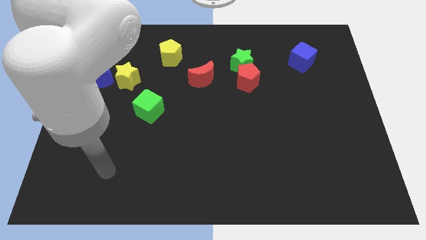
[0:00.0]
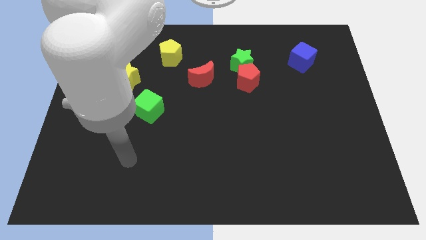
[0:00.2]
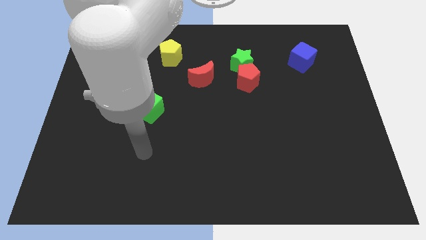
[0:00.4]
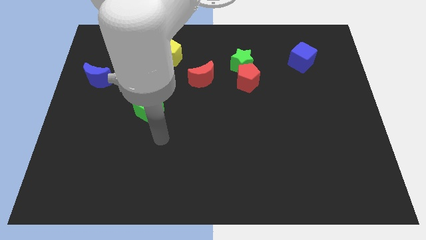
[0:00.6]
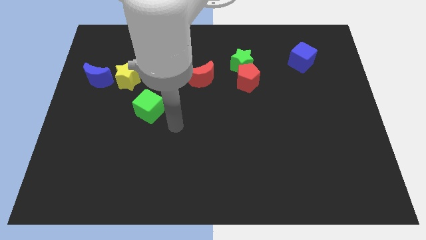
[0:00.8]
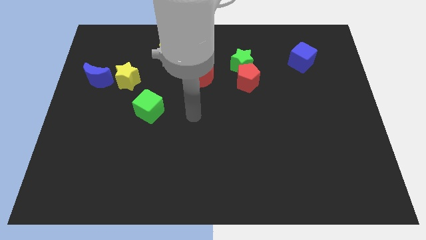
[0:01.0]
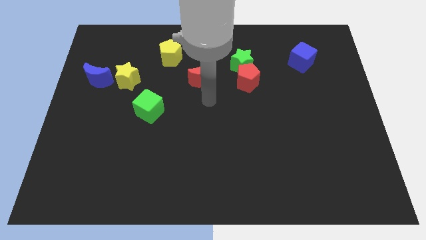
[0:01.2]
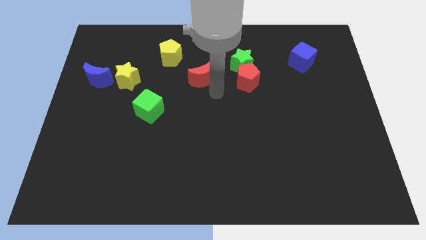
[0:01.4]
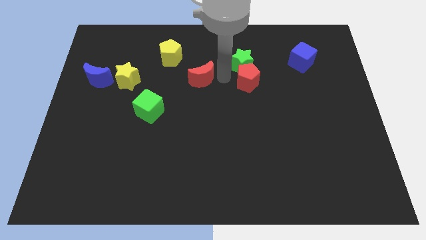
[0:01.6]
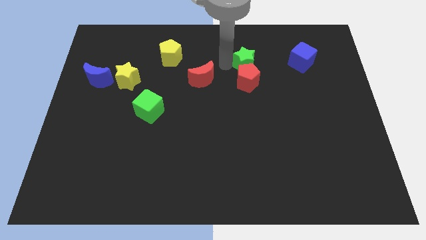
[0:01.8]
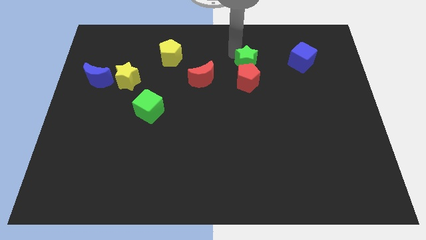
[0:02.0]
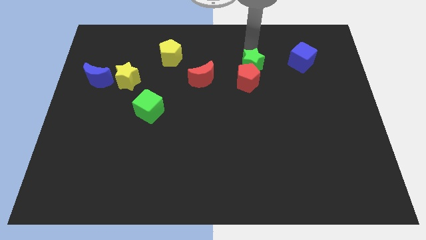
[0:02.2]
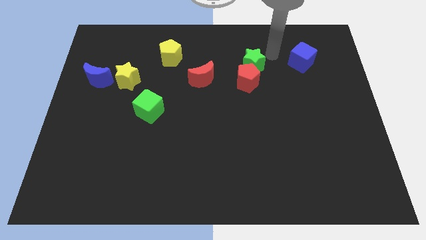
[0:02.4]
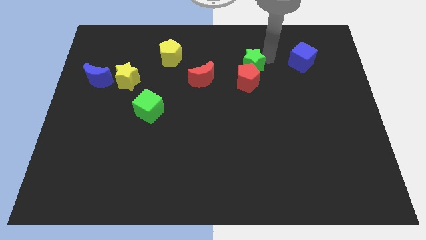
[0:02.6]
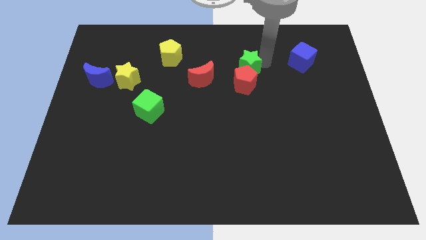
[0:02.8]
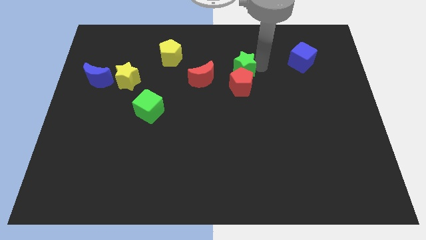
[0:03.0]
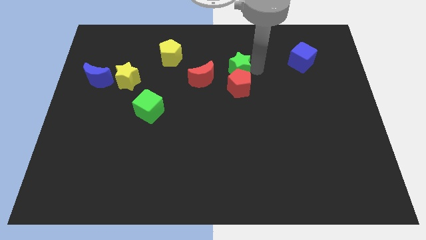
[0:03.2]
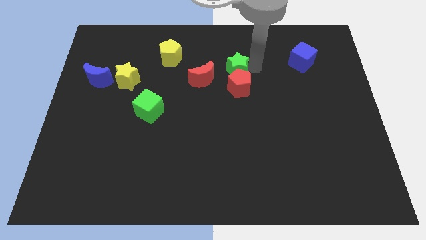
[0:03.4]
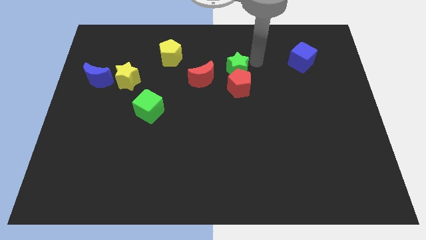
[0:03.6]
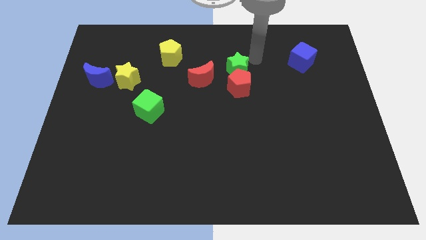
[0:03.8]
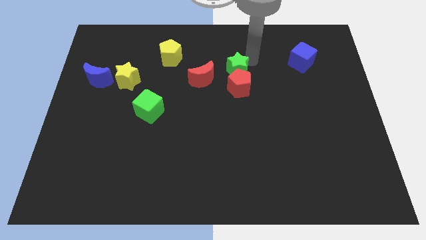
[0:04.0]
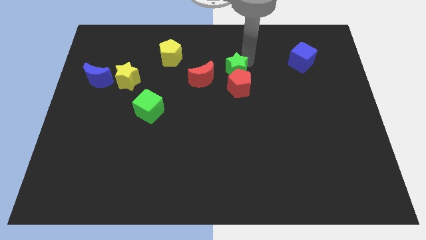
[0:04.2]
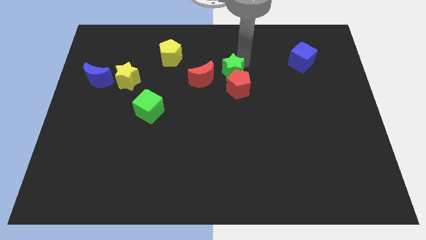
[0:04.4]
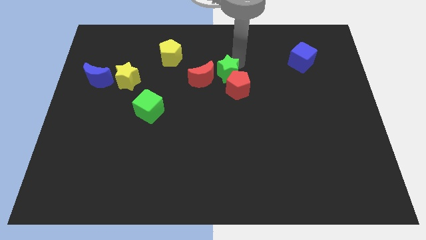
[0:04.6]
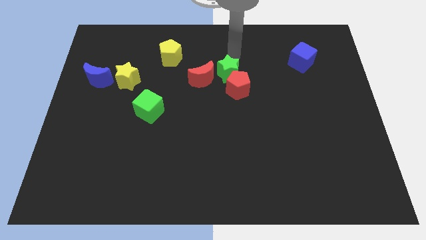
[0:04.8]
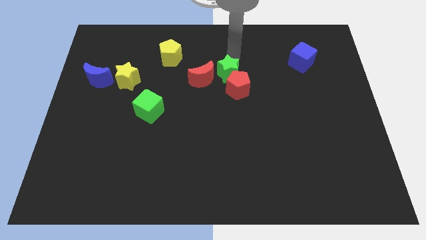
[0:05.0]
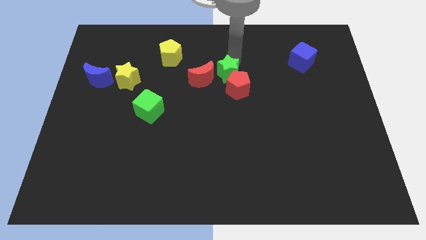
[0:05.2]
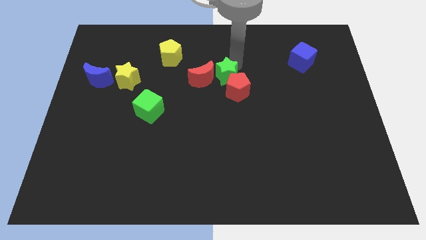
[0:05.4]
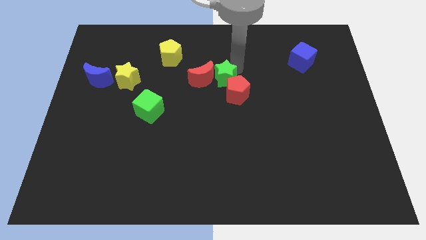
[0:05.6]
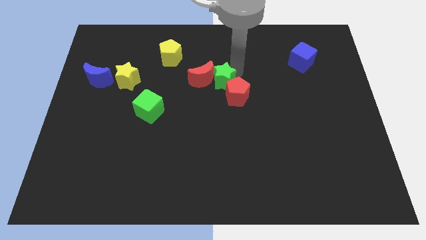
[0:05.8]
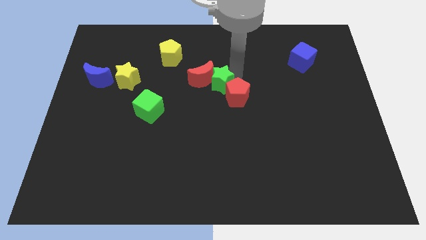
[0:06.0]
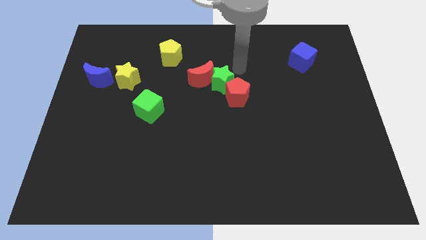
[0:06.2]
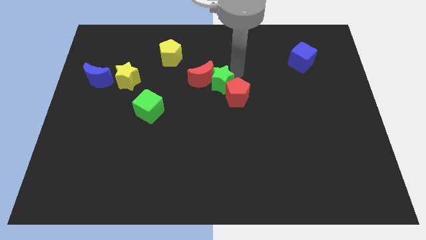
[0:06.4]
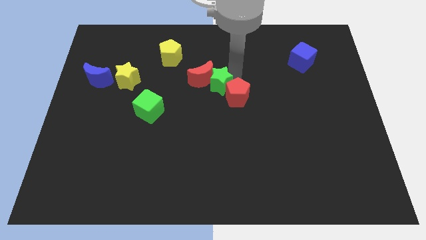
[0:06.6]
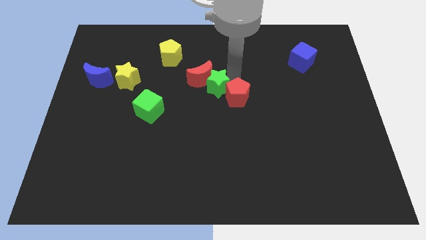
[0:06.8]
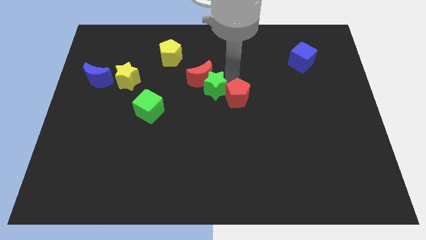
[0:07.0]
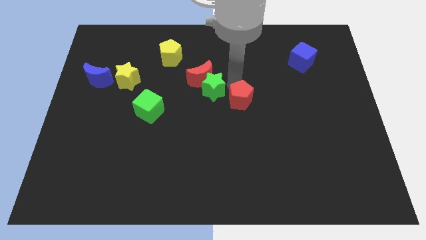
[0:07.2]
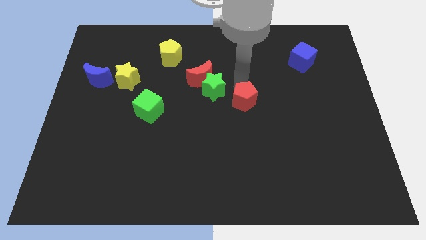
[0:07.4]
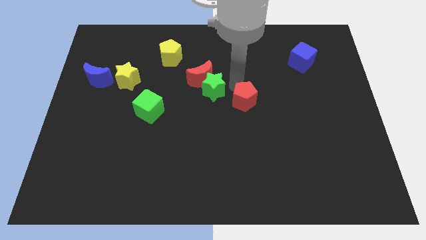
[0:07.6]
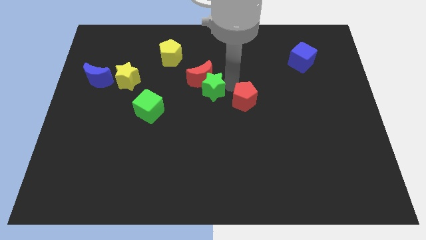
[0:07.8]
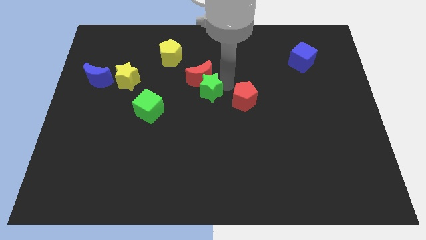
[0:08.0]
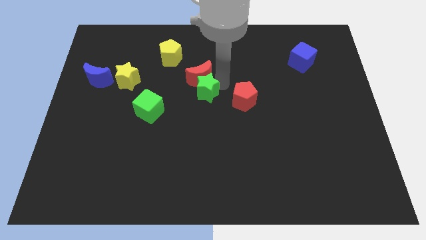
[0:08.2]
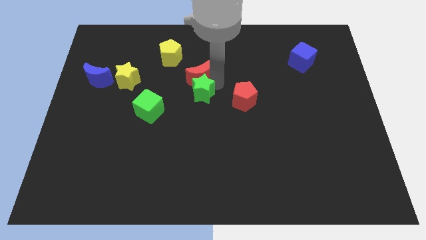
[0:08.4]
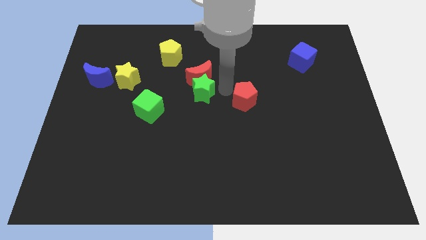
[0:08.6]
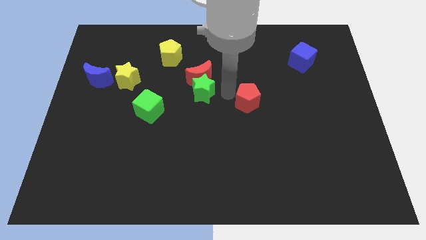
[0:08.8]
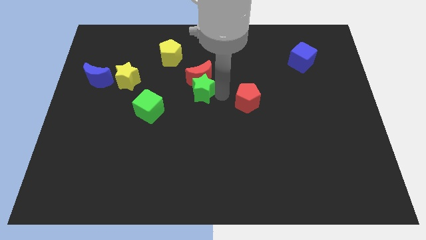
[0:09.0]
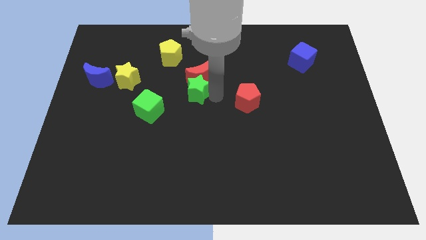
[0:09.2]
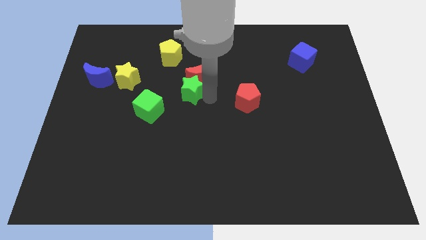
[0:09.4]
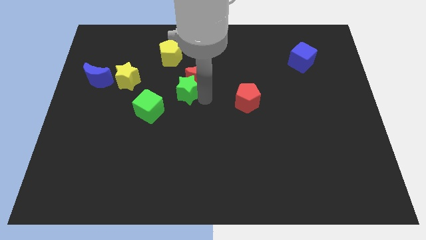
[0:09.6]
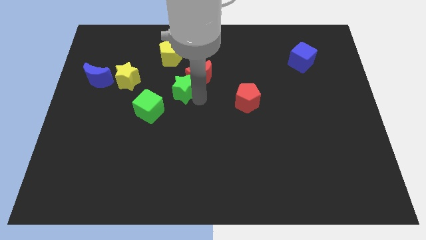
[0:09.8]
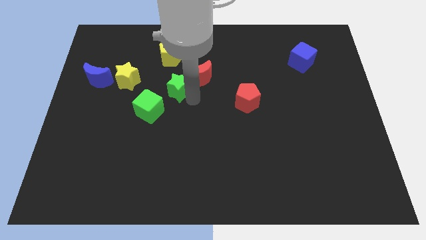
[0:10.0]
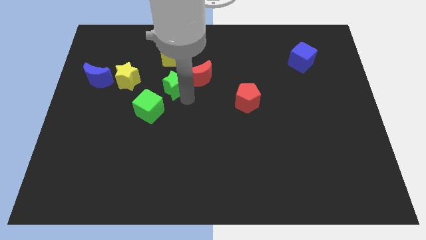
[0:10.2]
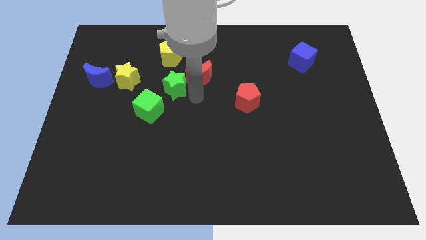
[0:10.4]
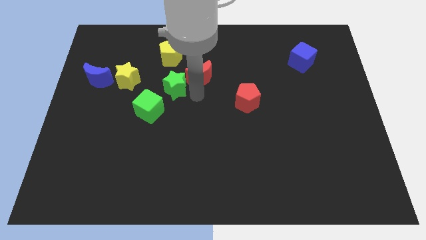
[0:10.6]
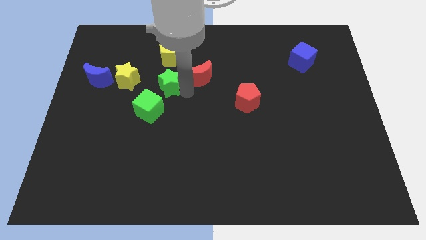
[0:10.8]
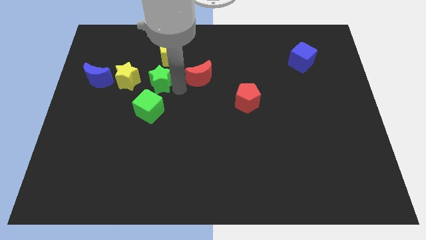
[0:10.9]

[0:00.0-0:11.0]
slide the green star to the right of the blue moon

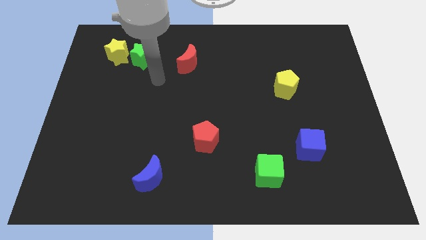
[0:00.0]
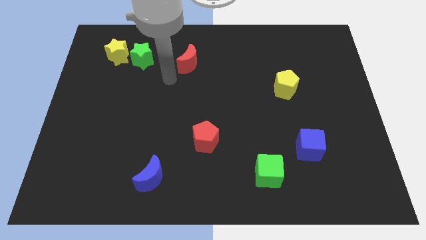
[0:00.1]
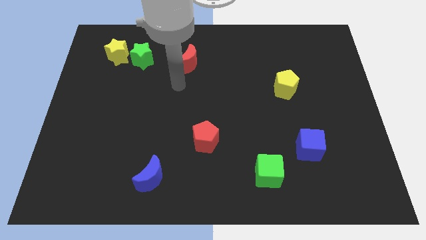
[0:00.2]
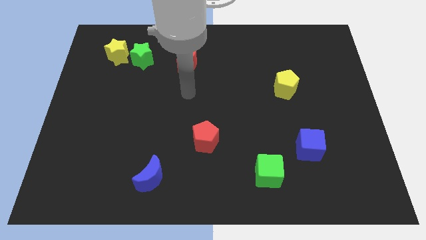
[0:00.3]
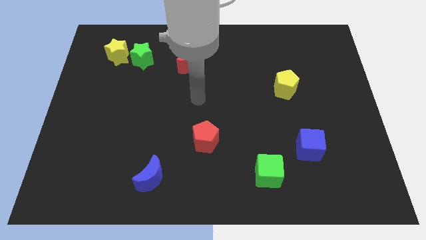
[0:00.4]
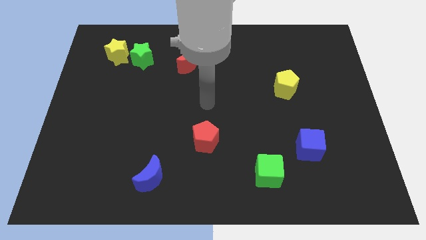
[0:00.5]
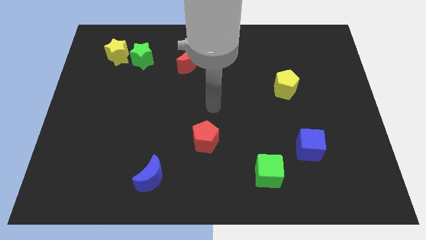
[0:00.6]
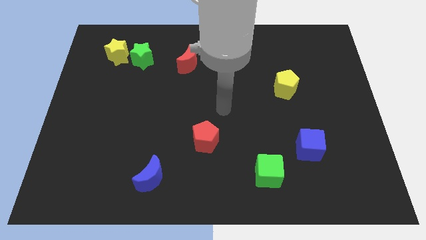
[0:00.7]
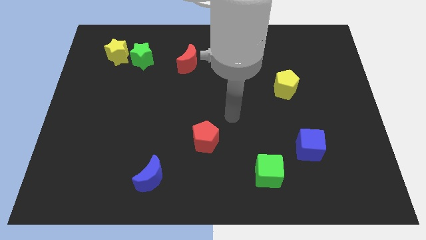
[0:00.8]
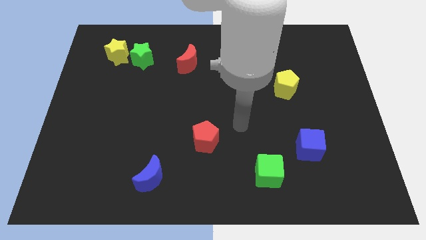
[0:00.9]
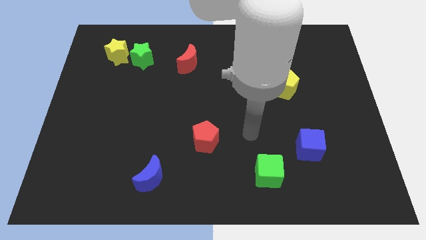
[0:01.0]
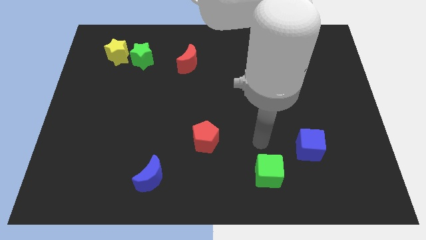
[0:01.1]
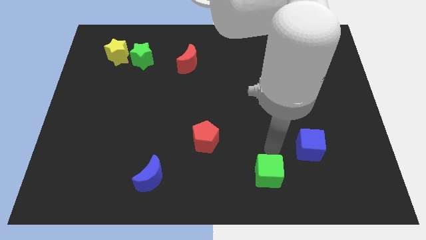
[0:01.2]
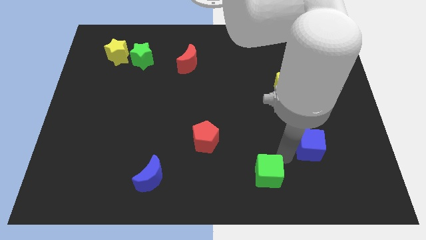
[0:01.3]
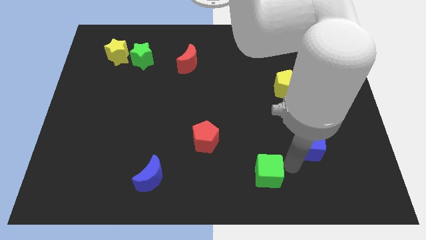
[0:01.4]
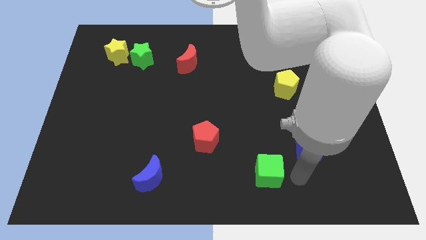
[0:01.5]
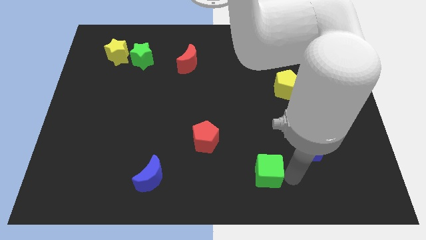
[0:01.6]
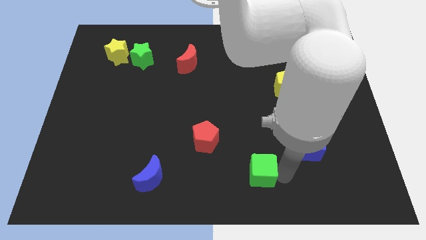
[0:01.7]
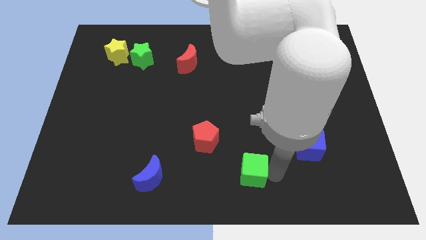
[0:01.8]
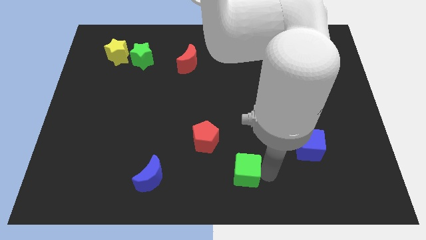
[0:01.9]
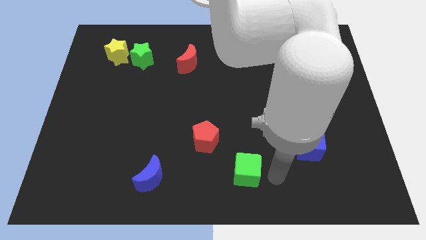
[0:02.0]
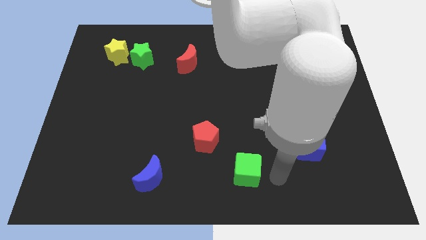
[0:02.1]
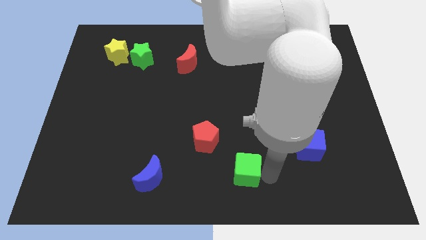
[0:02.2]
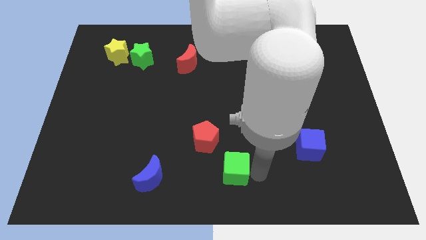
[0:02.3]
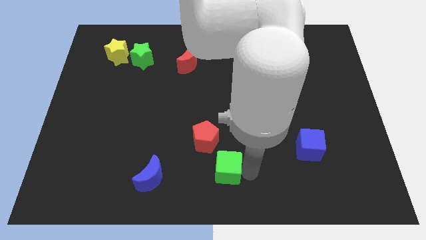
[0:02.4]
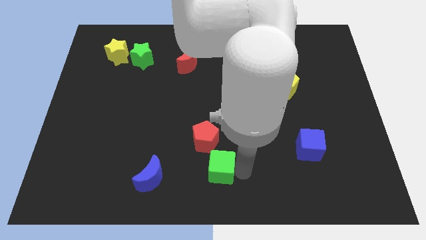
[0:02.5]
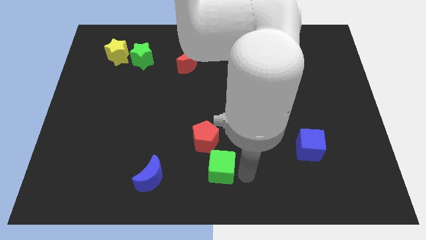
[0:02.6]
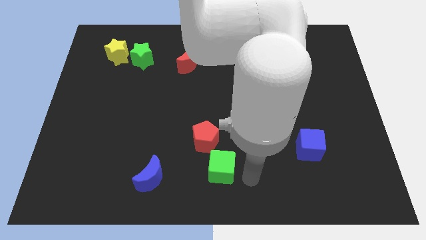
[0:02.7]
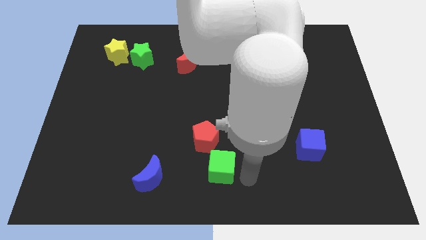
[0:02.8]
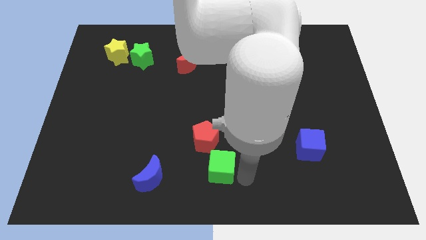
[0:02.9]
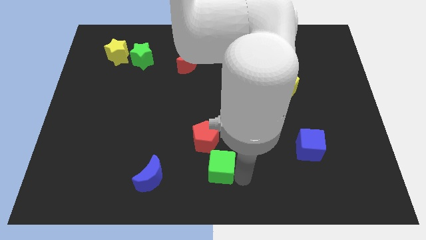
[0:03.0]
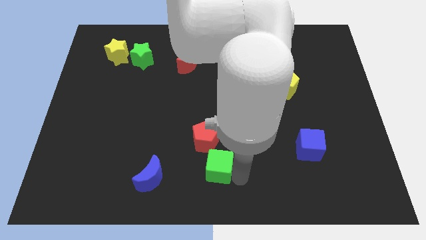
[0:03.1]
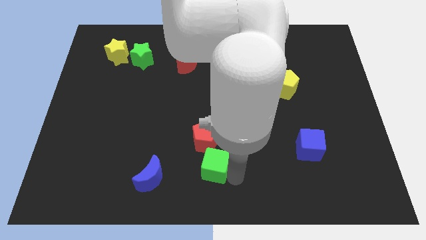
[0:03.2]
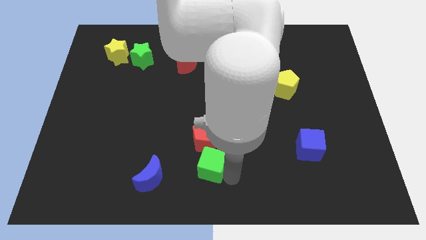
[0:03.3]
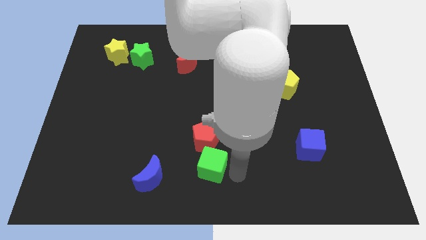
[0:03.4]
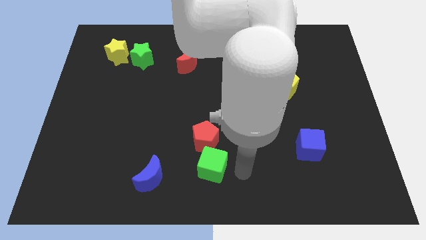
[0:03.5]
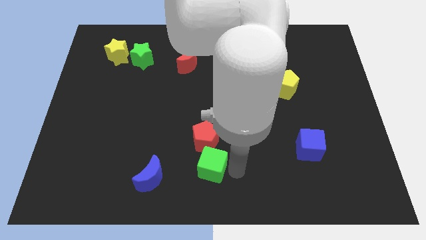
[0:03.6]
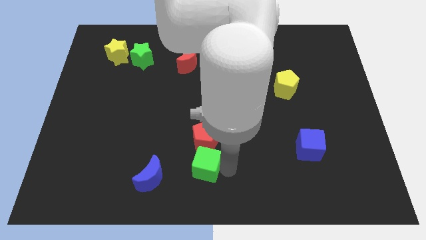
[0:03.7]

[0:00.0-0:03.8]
move the green cube to the bottom left of the red pentagon
